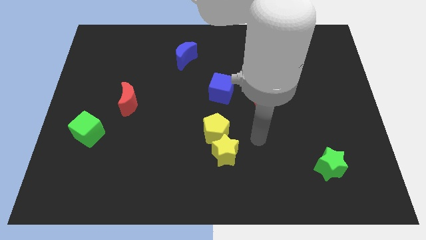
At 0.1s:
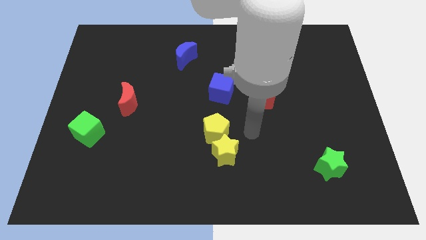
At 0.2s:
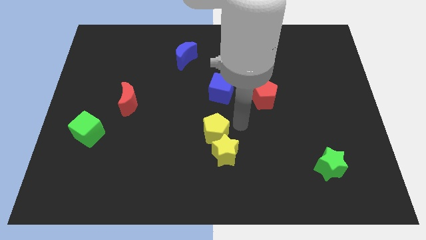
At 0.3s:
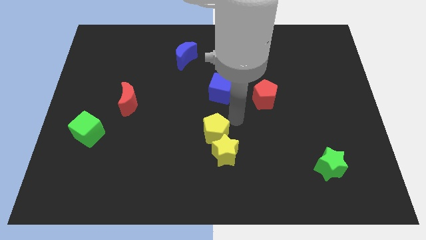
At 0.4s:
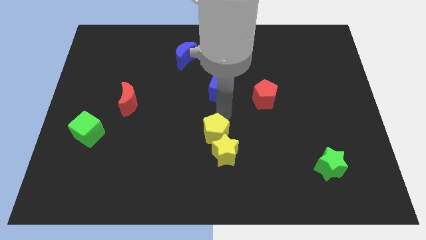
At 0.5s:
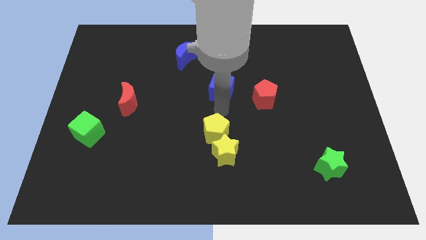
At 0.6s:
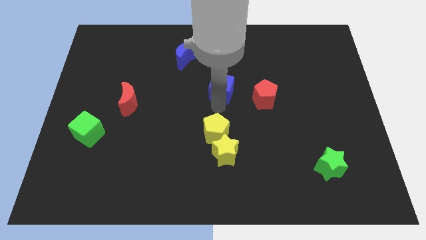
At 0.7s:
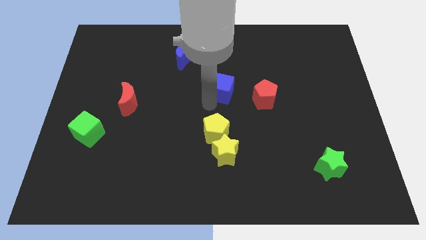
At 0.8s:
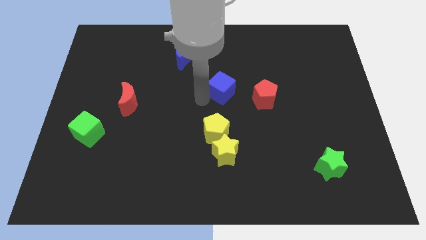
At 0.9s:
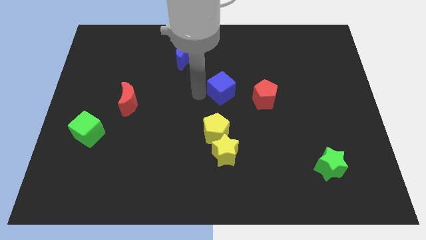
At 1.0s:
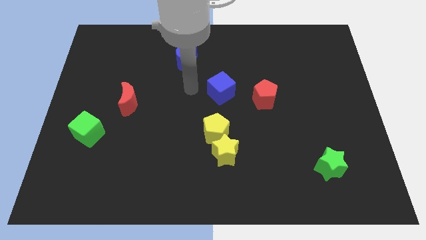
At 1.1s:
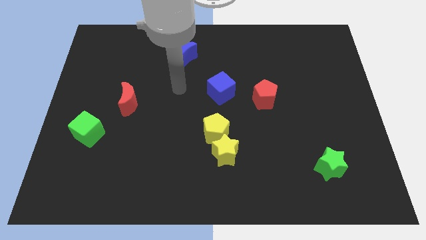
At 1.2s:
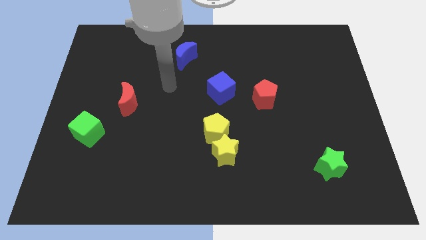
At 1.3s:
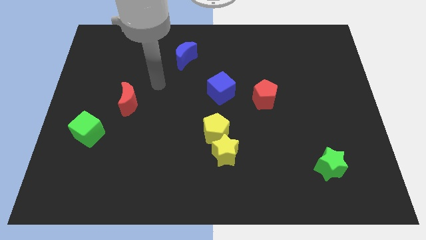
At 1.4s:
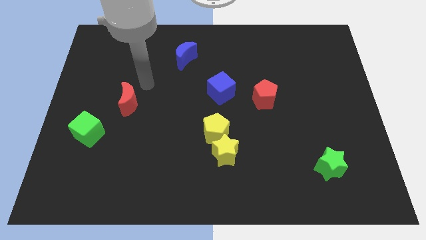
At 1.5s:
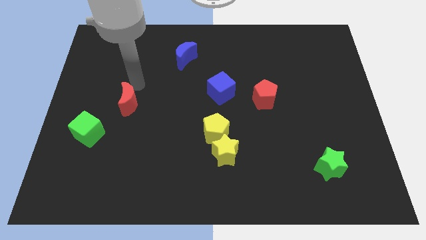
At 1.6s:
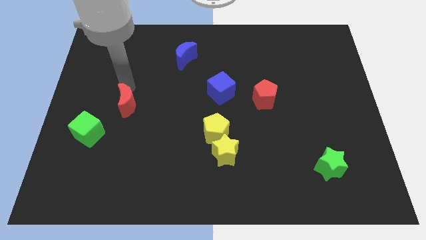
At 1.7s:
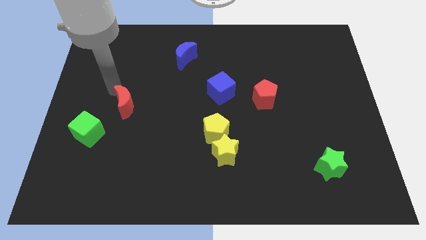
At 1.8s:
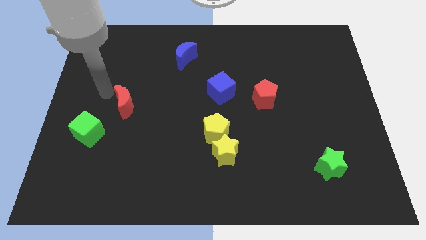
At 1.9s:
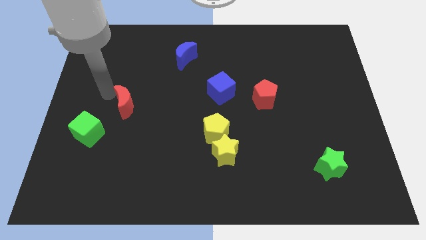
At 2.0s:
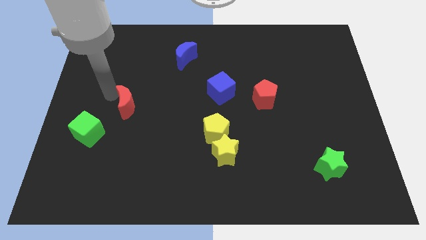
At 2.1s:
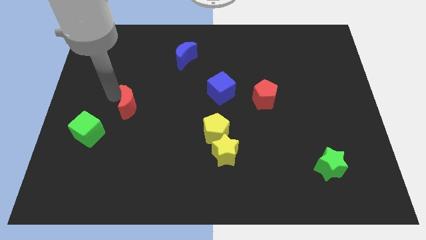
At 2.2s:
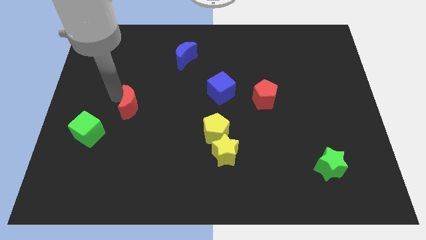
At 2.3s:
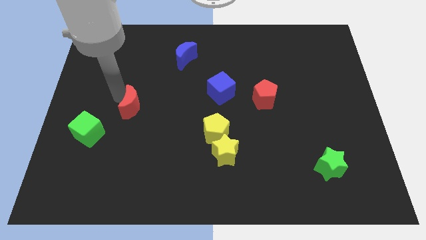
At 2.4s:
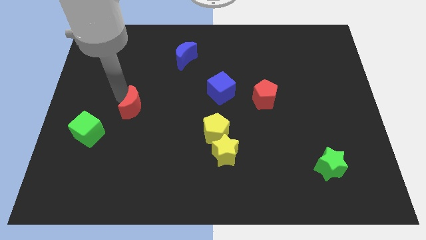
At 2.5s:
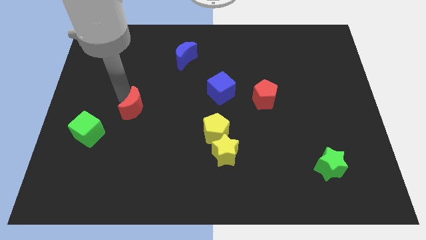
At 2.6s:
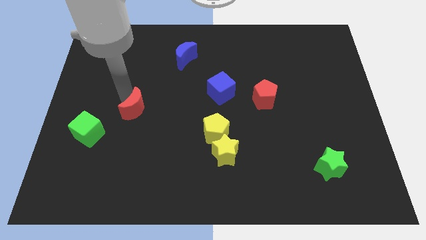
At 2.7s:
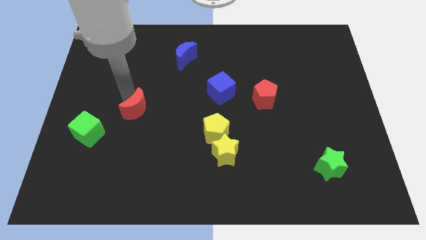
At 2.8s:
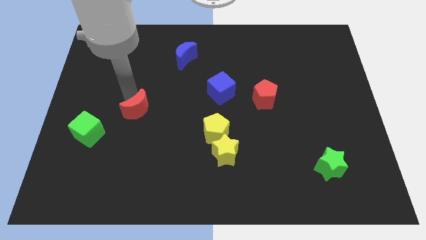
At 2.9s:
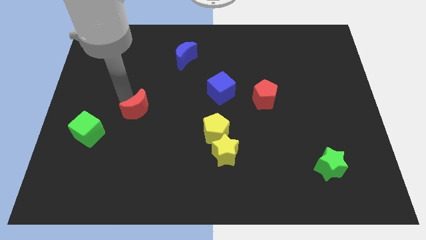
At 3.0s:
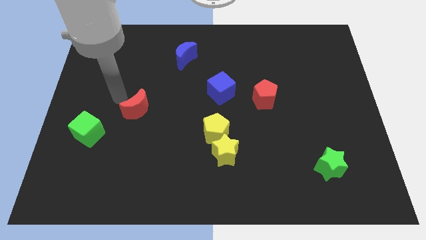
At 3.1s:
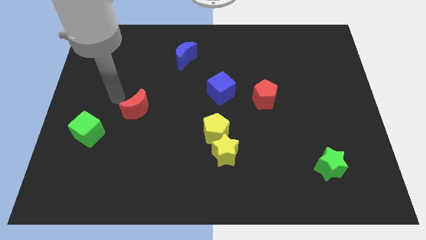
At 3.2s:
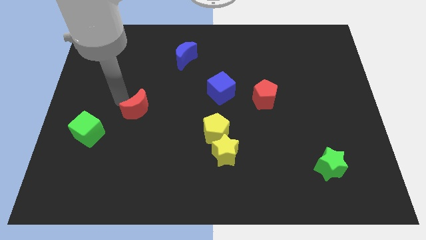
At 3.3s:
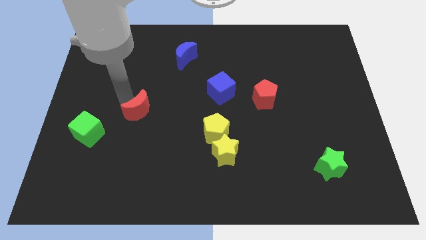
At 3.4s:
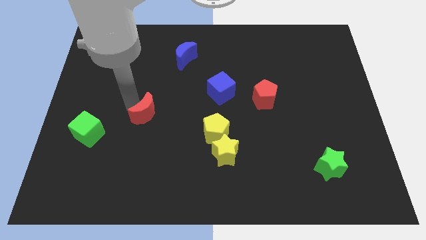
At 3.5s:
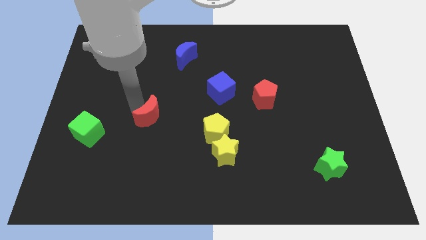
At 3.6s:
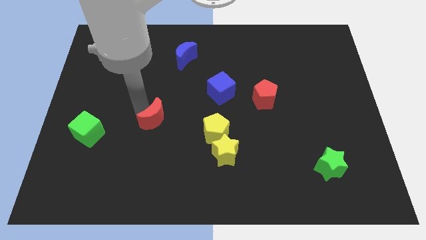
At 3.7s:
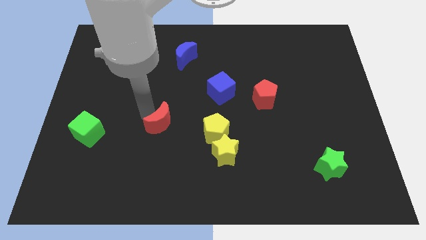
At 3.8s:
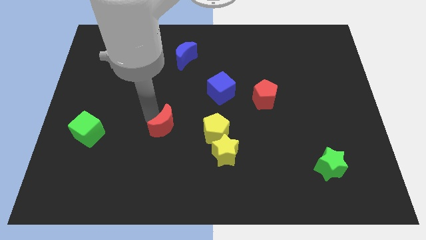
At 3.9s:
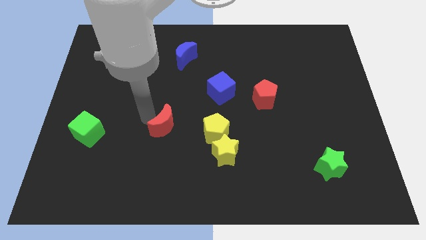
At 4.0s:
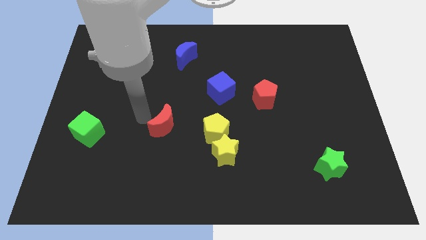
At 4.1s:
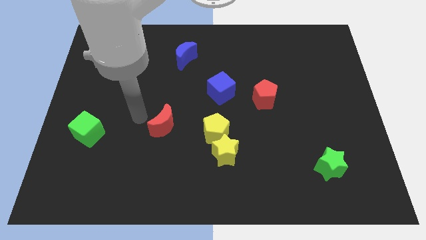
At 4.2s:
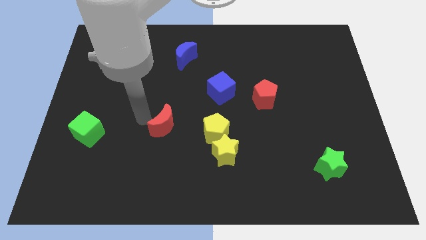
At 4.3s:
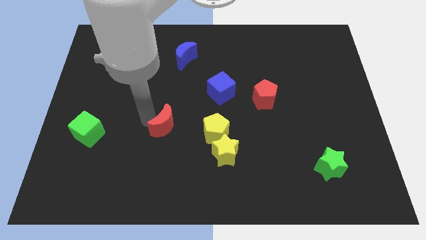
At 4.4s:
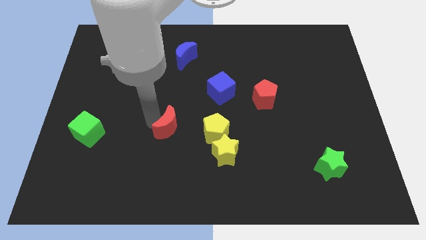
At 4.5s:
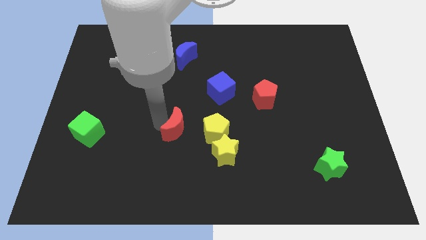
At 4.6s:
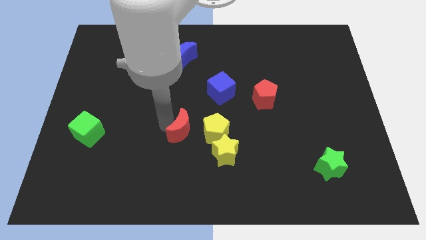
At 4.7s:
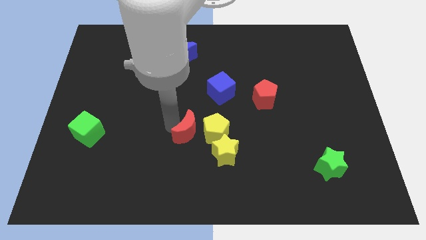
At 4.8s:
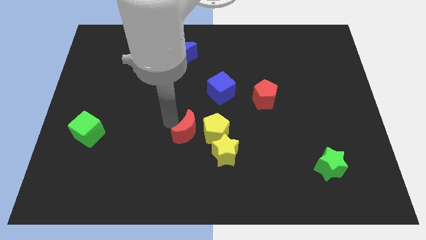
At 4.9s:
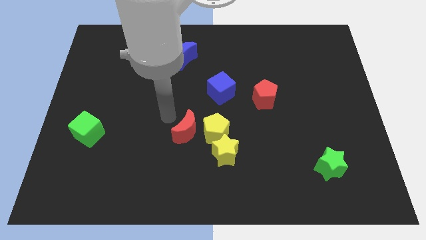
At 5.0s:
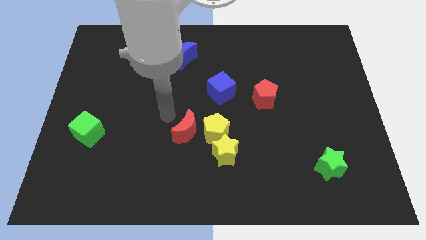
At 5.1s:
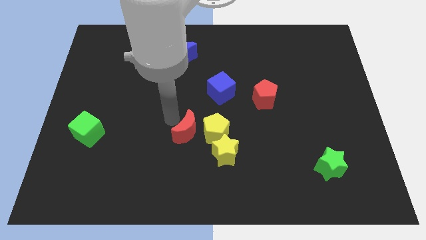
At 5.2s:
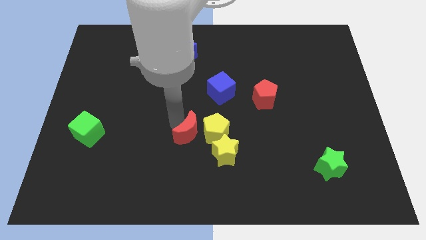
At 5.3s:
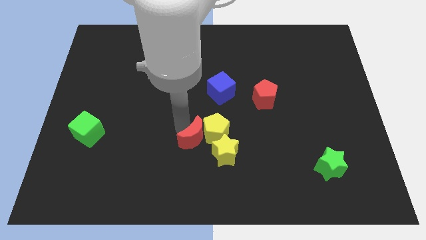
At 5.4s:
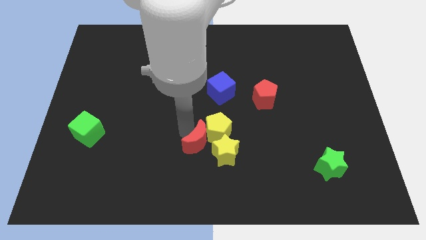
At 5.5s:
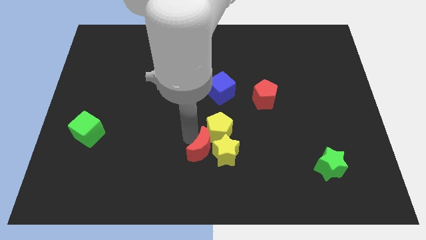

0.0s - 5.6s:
move the red moon close to the yellow star

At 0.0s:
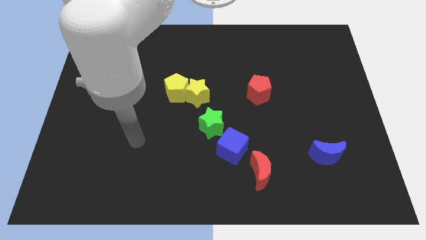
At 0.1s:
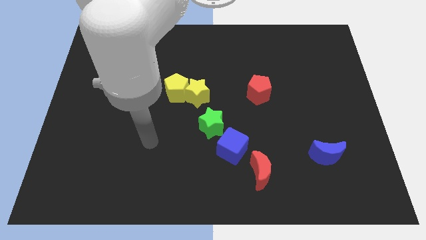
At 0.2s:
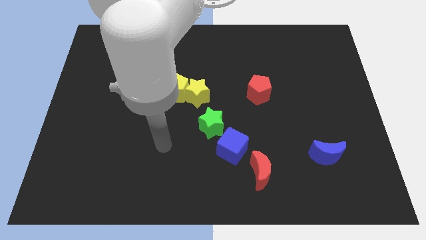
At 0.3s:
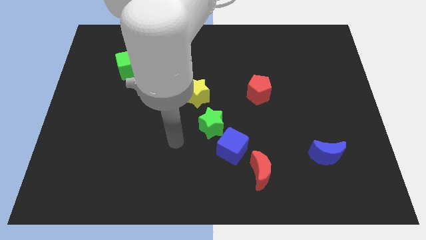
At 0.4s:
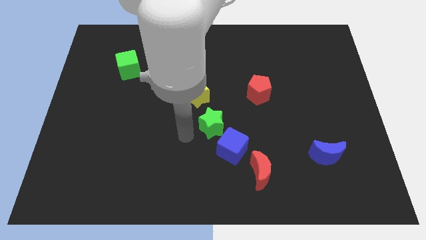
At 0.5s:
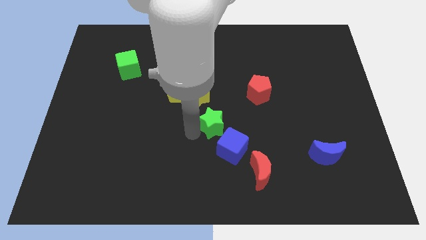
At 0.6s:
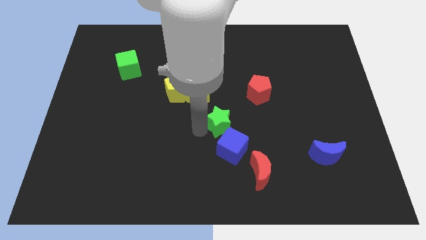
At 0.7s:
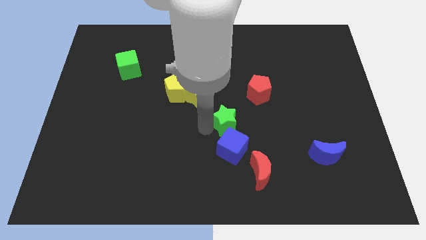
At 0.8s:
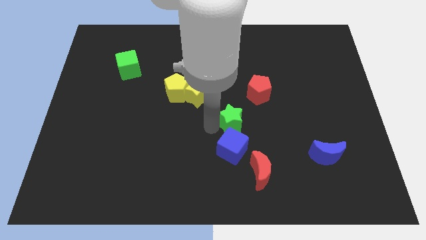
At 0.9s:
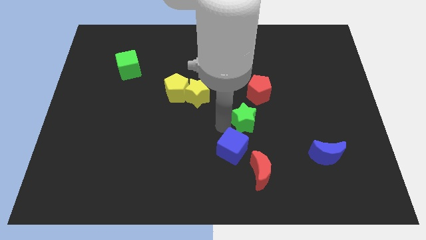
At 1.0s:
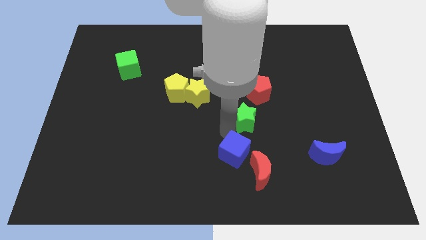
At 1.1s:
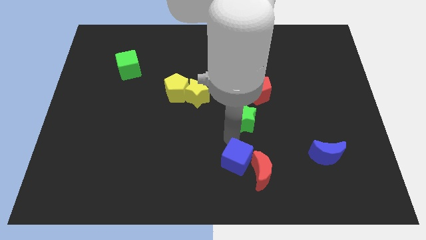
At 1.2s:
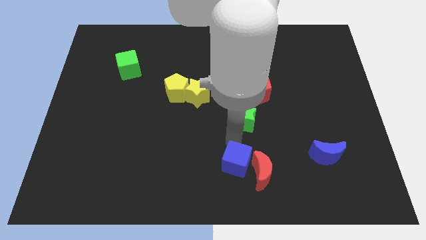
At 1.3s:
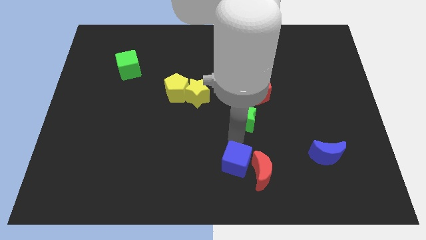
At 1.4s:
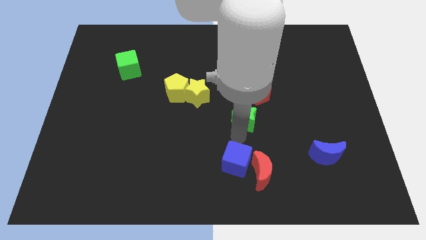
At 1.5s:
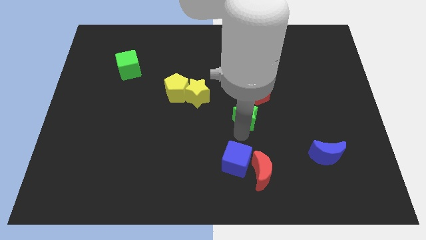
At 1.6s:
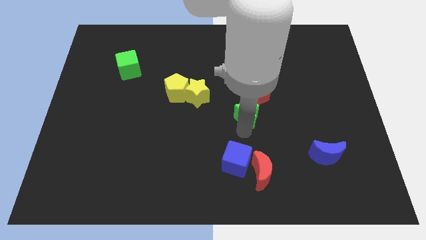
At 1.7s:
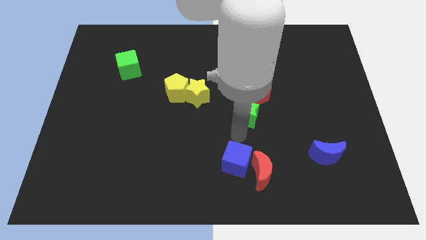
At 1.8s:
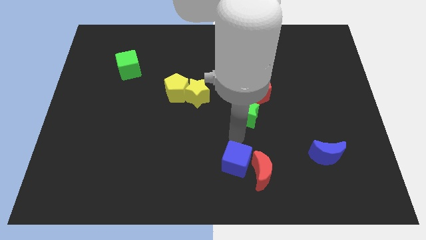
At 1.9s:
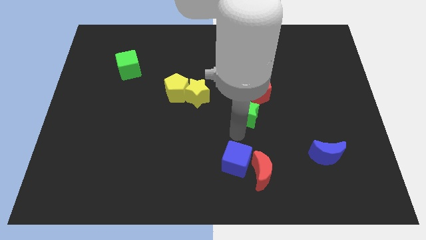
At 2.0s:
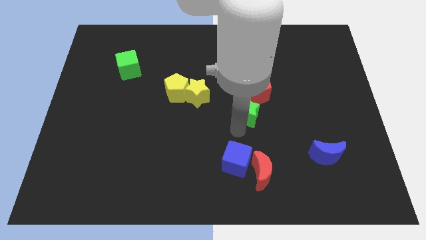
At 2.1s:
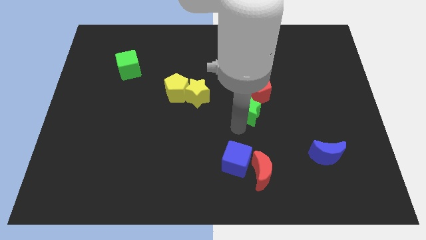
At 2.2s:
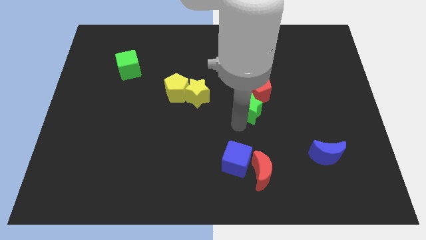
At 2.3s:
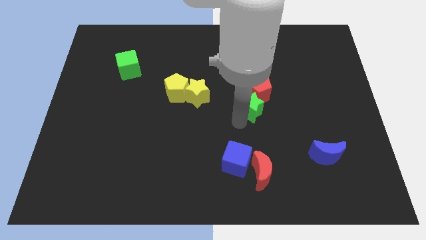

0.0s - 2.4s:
push the green star close to the red pentagon

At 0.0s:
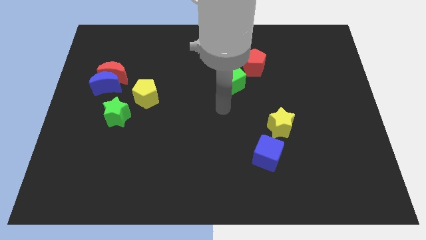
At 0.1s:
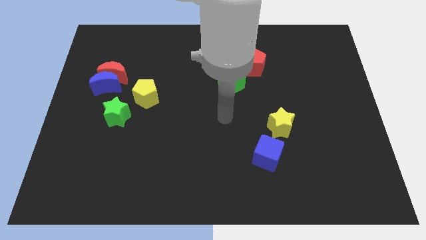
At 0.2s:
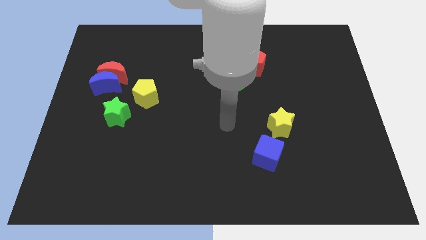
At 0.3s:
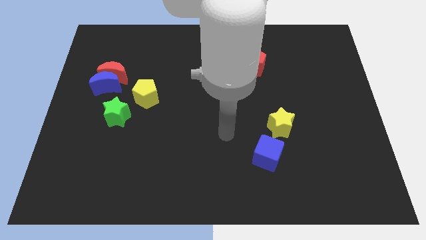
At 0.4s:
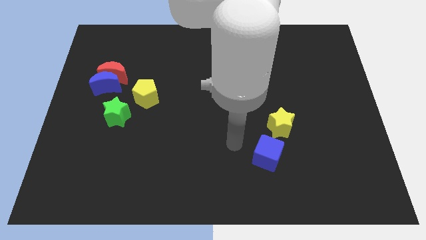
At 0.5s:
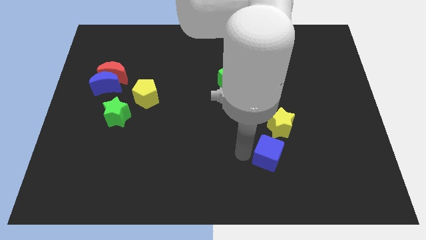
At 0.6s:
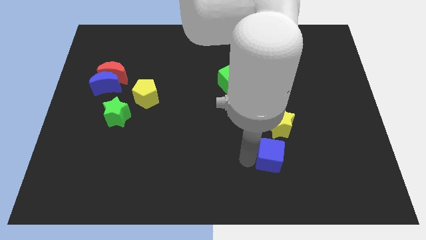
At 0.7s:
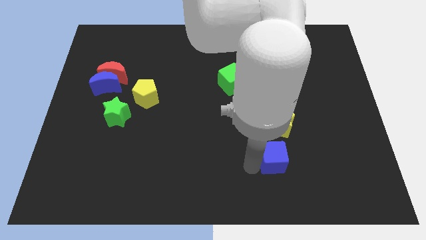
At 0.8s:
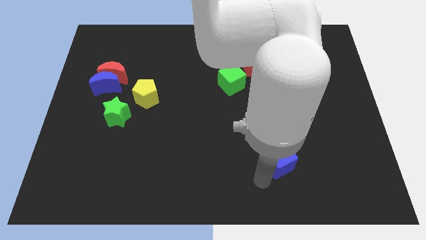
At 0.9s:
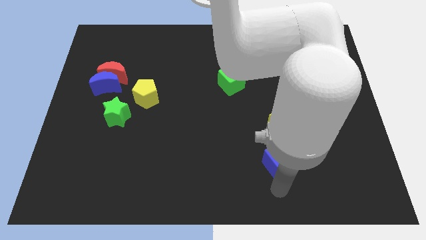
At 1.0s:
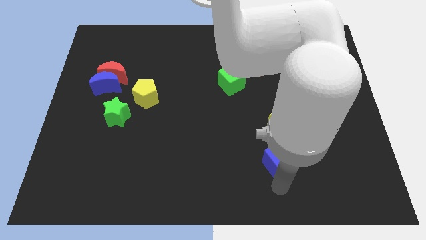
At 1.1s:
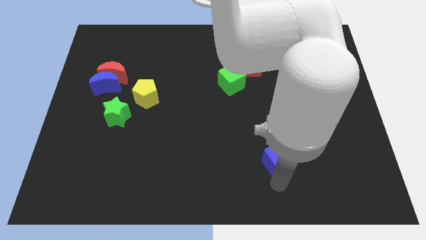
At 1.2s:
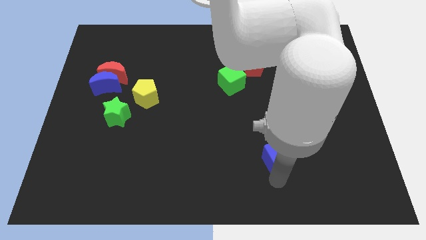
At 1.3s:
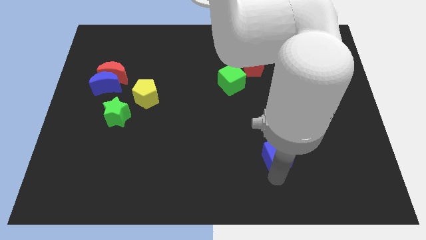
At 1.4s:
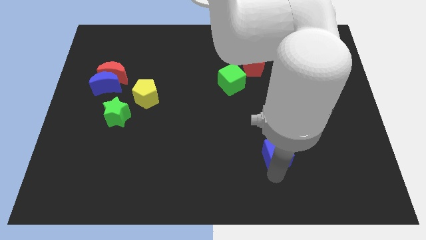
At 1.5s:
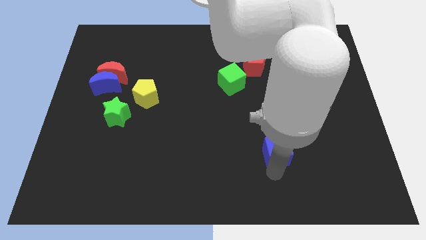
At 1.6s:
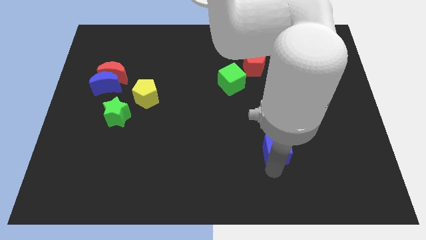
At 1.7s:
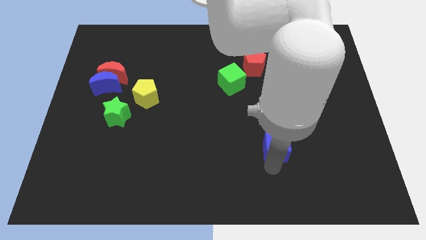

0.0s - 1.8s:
put the blue cube next to the yellow star
